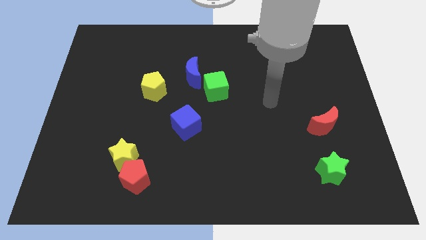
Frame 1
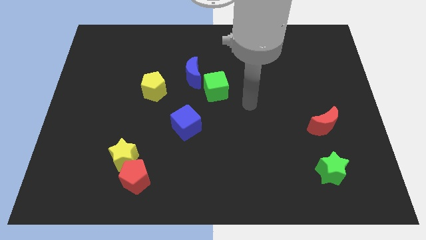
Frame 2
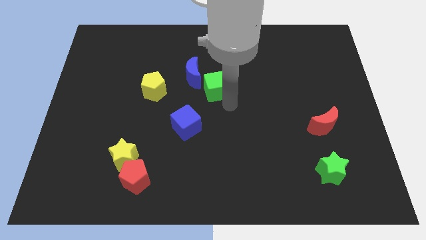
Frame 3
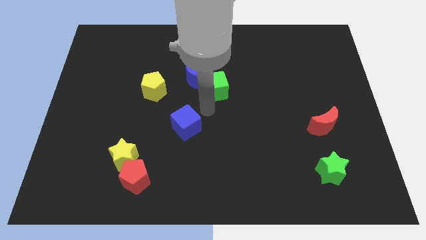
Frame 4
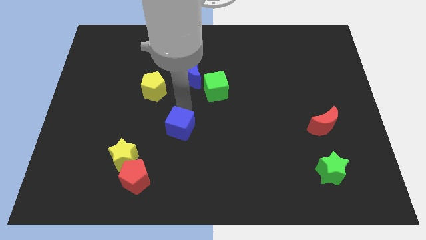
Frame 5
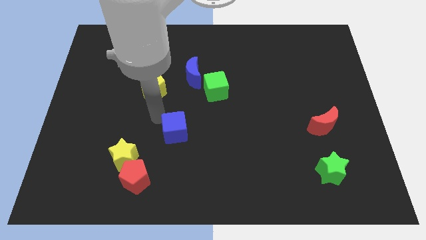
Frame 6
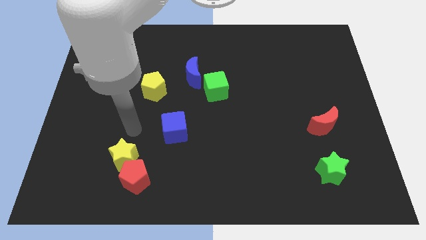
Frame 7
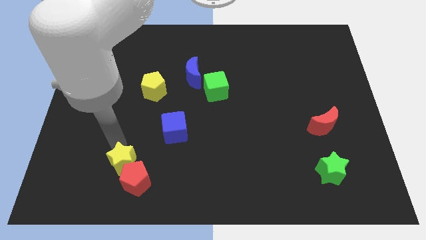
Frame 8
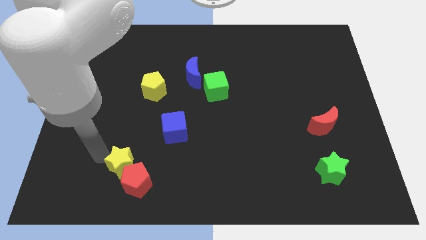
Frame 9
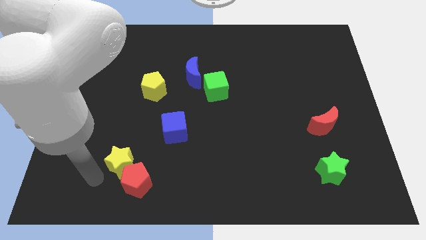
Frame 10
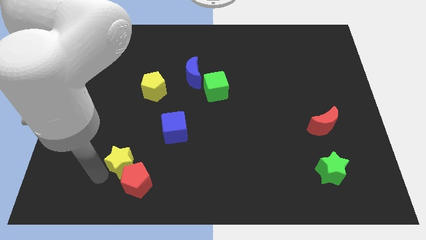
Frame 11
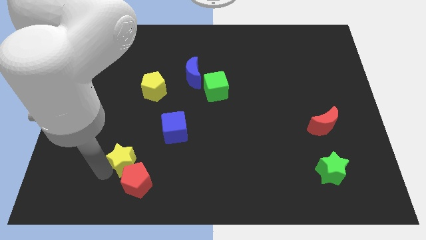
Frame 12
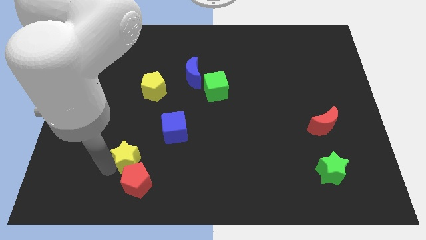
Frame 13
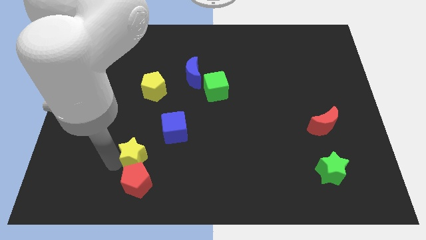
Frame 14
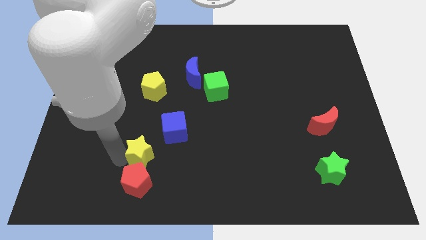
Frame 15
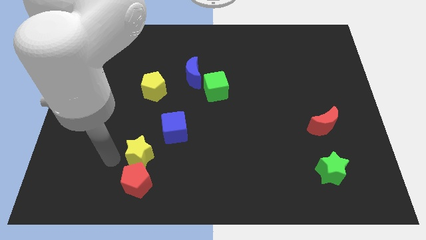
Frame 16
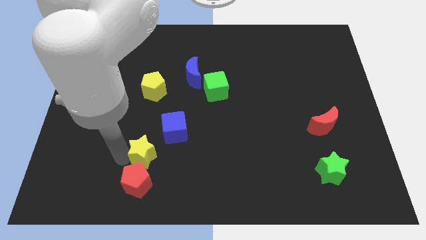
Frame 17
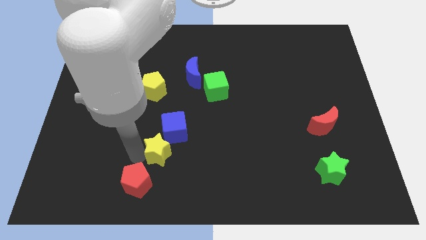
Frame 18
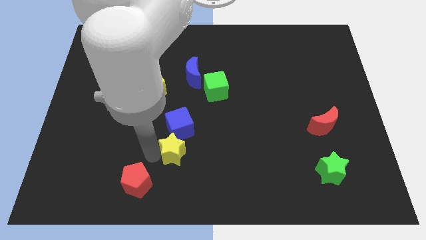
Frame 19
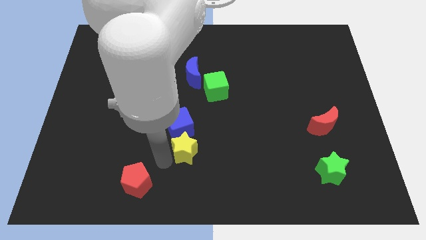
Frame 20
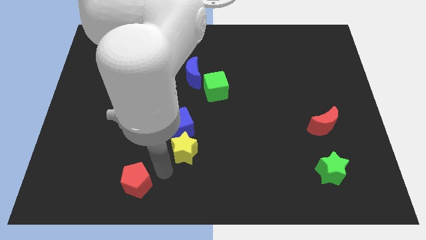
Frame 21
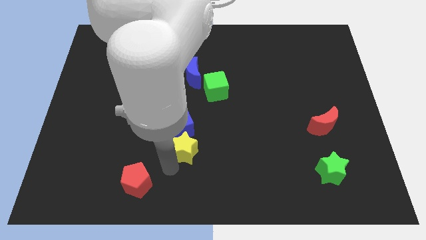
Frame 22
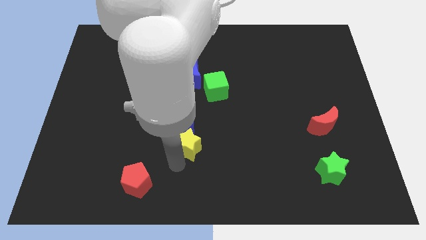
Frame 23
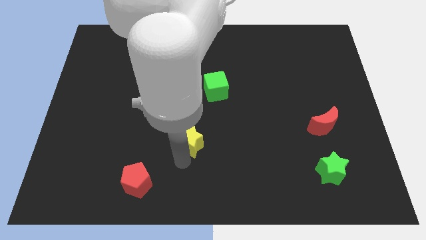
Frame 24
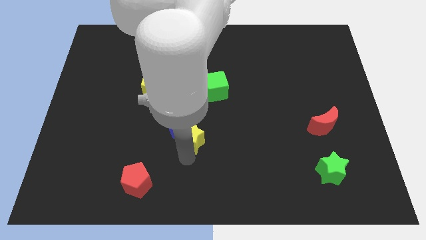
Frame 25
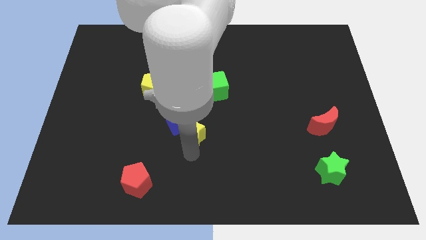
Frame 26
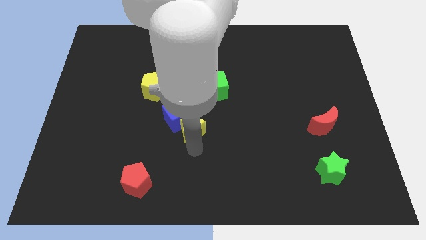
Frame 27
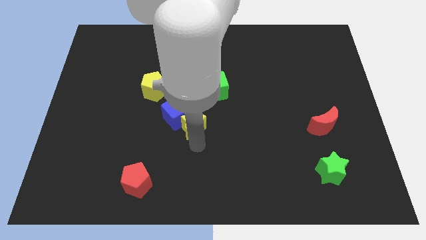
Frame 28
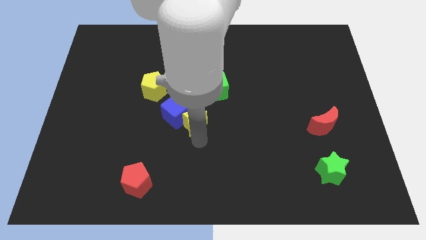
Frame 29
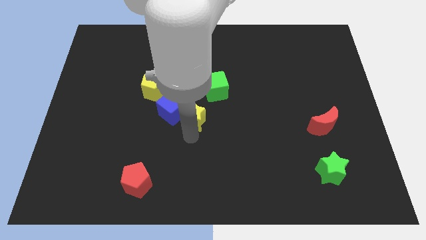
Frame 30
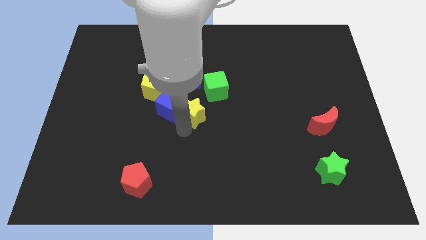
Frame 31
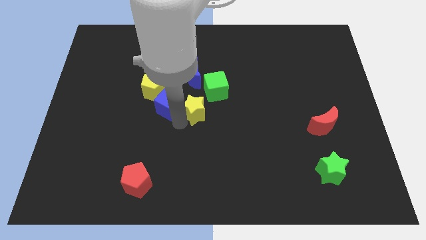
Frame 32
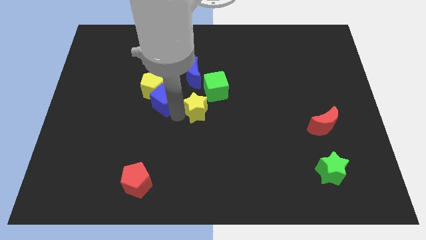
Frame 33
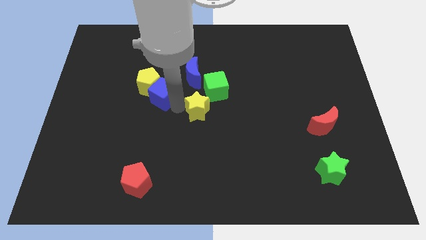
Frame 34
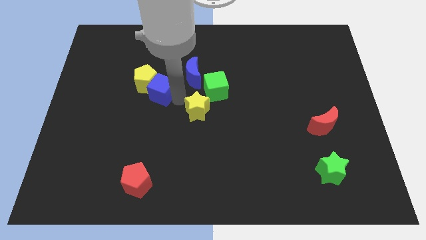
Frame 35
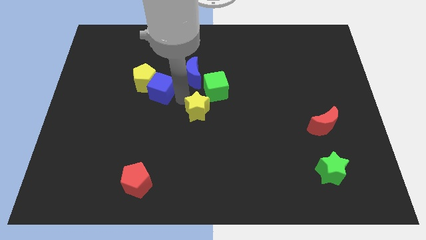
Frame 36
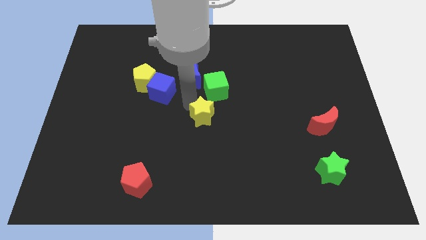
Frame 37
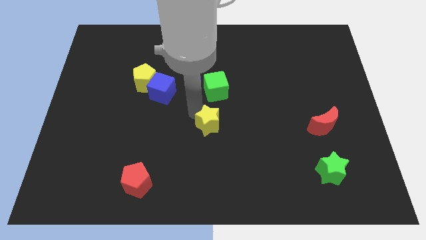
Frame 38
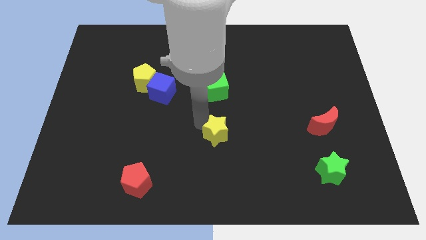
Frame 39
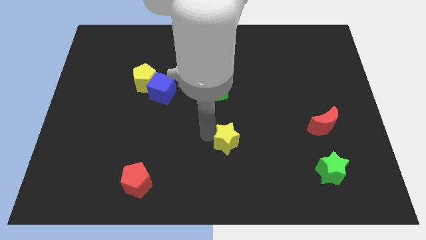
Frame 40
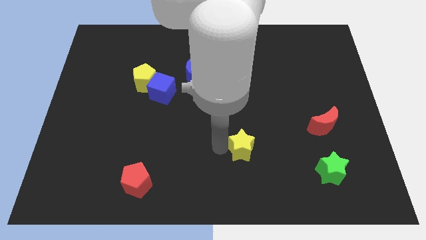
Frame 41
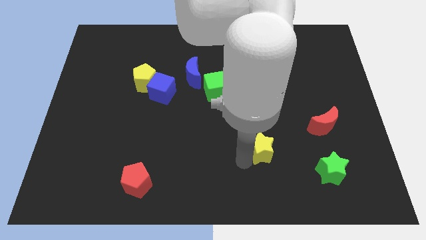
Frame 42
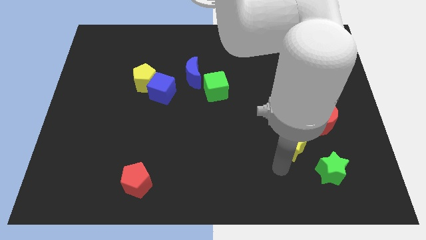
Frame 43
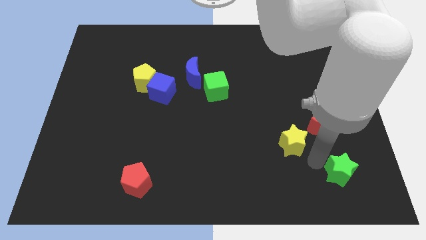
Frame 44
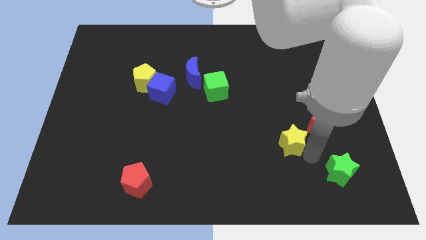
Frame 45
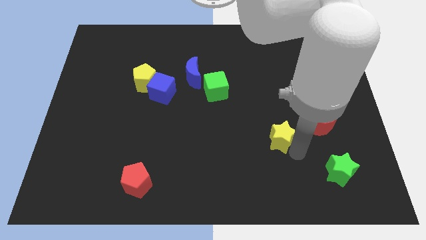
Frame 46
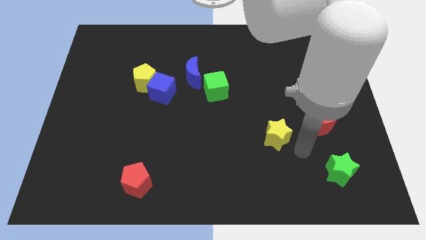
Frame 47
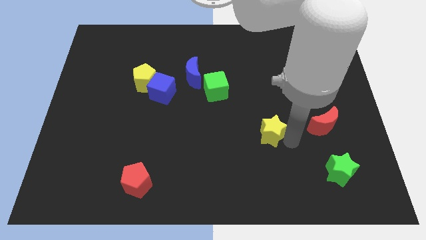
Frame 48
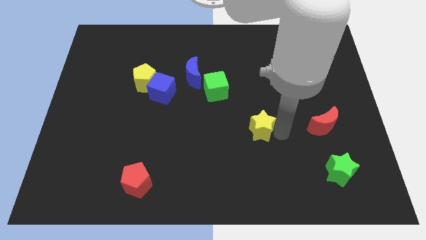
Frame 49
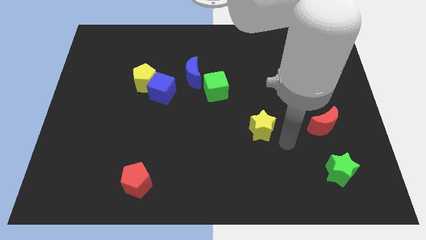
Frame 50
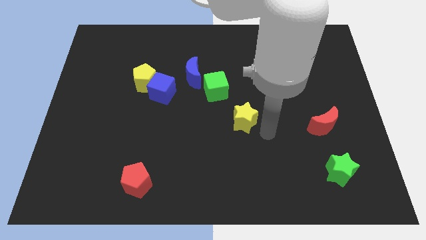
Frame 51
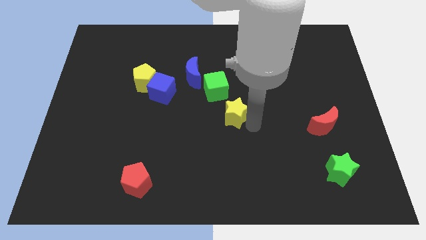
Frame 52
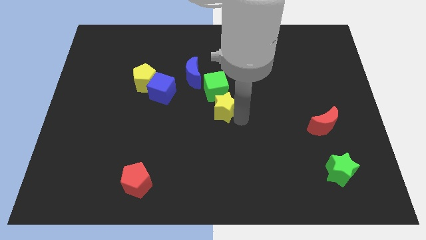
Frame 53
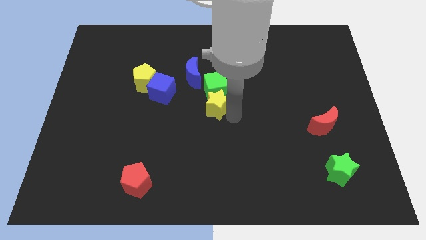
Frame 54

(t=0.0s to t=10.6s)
slide the yellow star towards the green cube

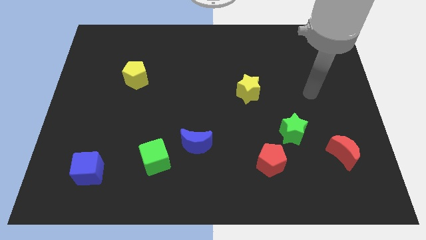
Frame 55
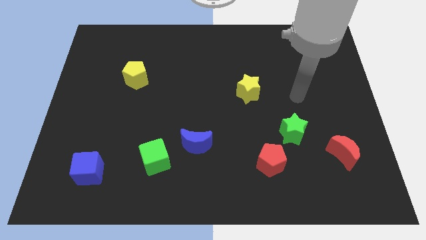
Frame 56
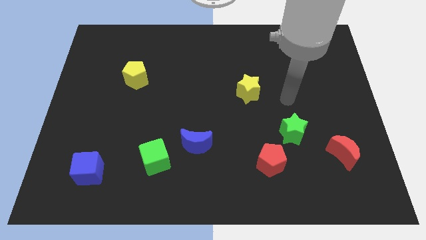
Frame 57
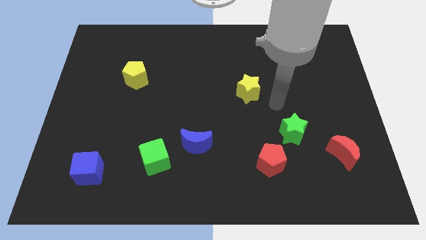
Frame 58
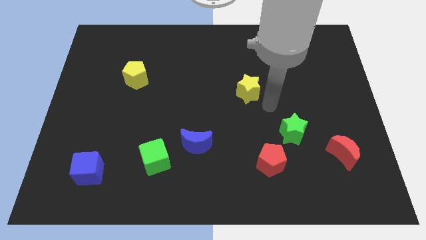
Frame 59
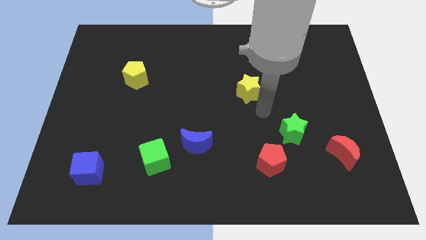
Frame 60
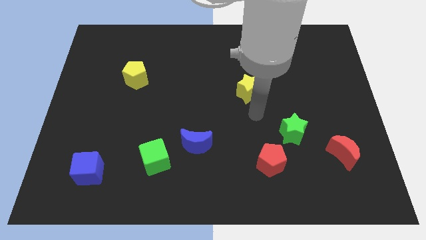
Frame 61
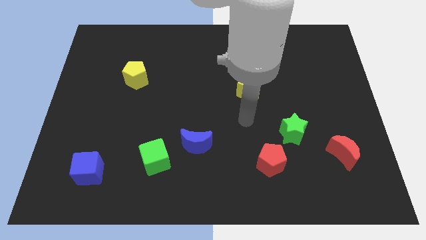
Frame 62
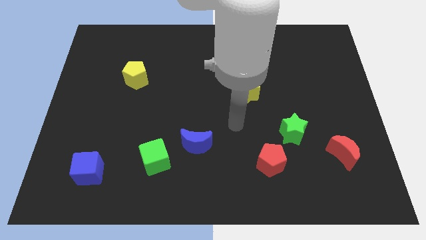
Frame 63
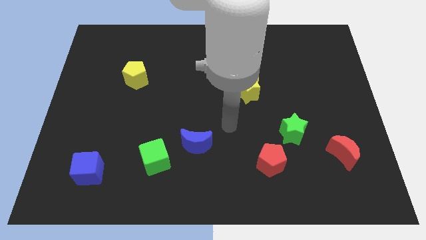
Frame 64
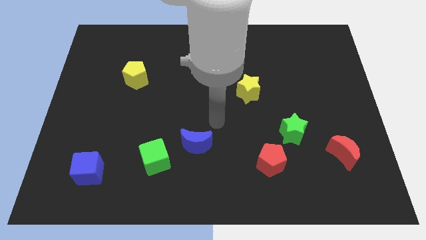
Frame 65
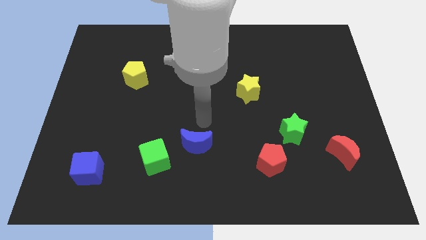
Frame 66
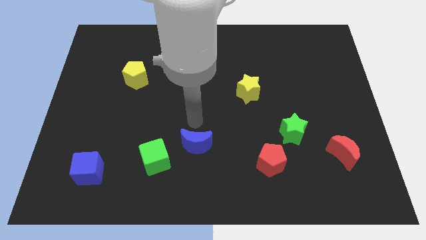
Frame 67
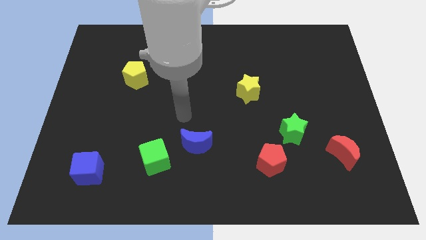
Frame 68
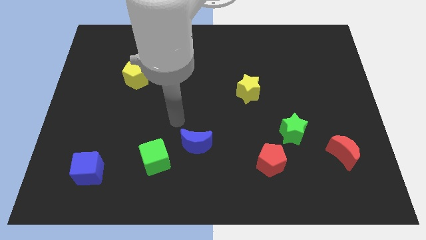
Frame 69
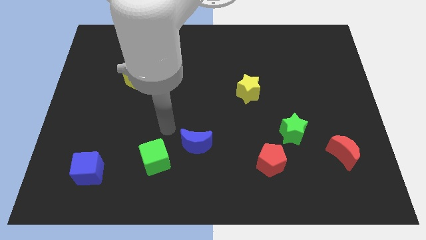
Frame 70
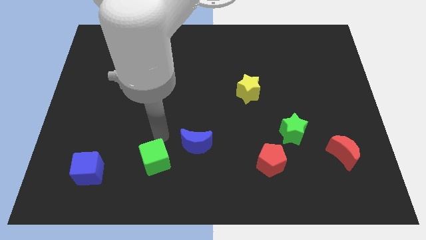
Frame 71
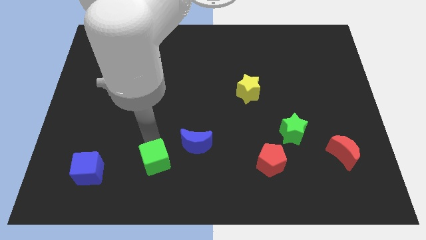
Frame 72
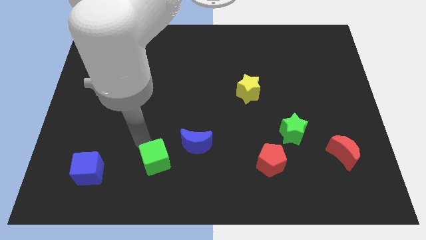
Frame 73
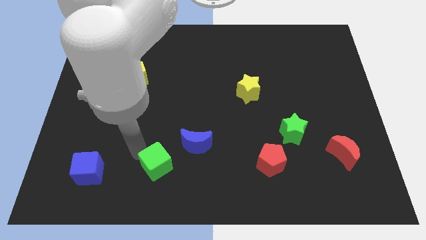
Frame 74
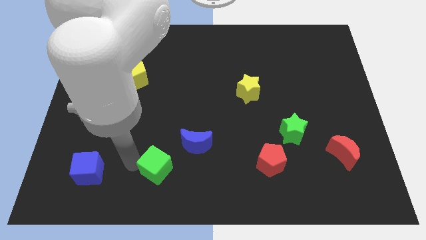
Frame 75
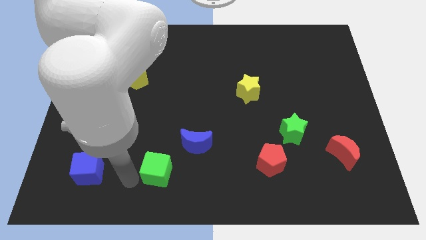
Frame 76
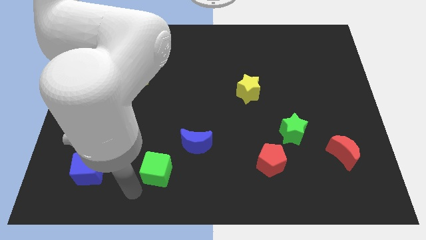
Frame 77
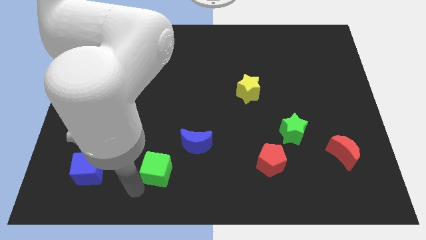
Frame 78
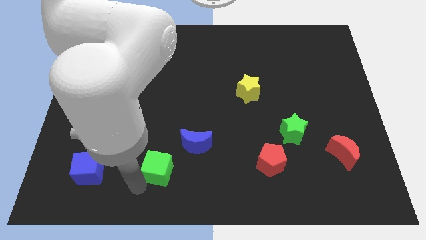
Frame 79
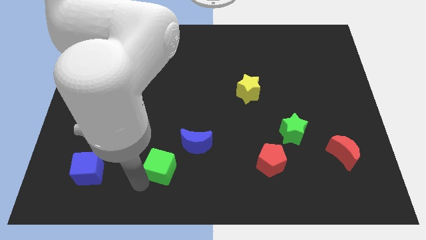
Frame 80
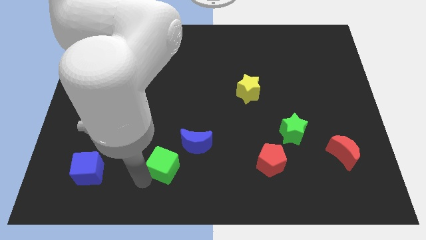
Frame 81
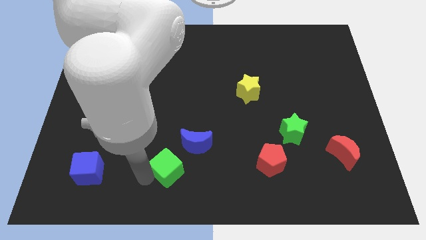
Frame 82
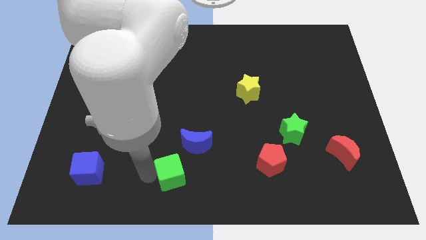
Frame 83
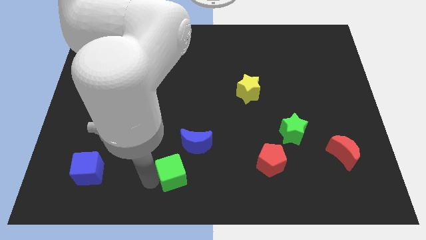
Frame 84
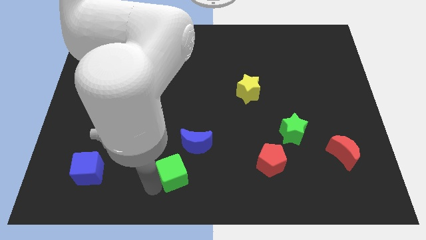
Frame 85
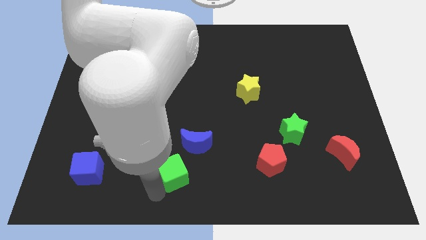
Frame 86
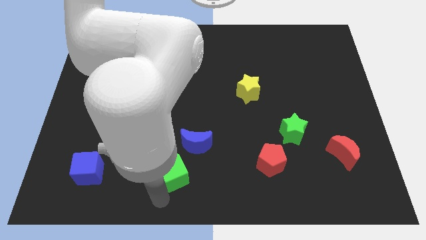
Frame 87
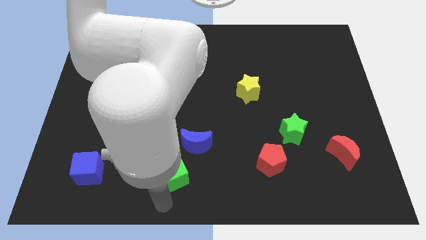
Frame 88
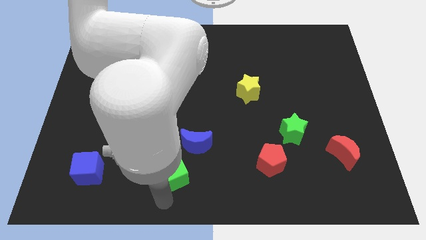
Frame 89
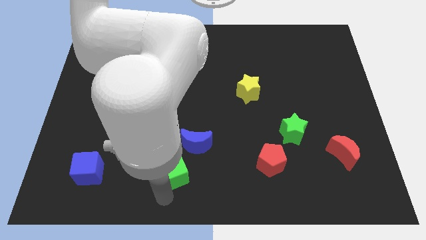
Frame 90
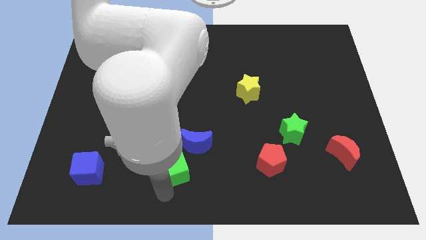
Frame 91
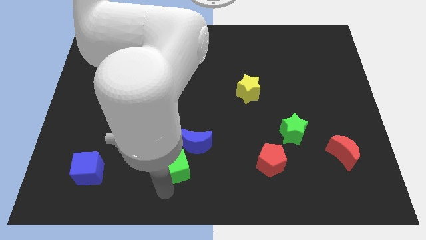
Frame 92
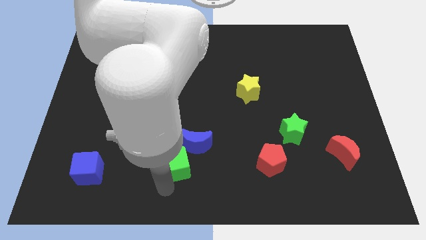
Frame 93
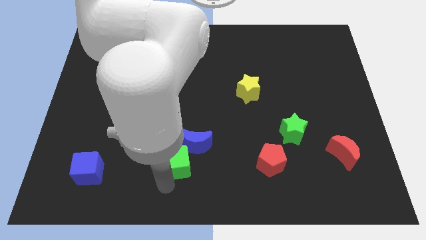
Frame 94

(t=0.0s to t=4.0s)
put the green cube close to the blue moon
